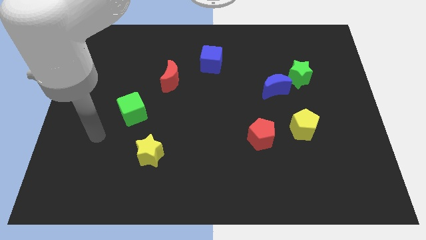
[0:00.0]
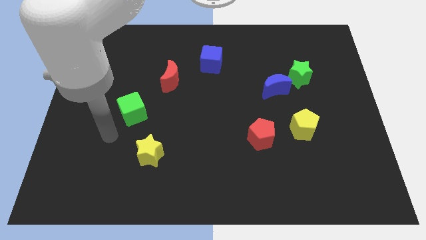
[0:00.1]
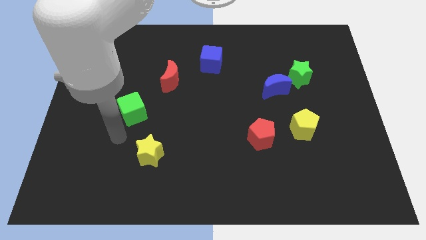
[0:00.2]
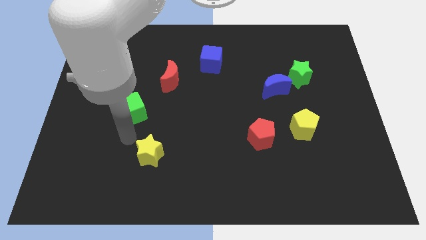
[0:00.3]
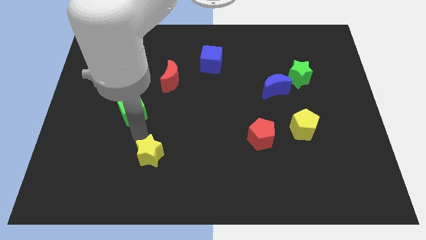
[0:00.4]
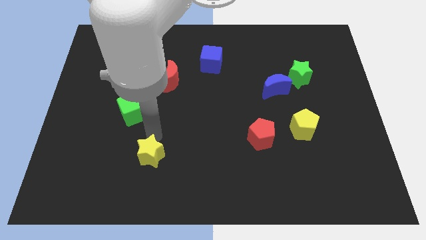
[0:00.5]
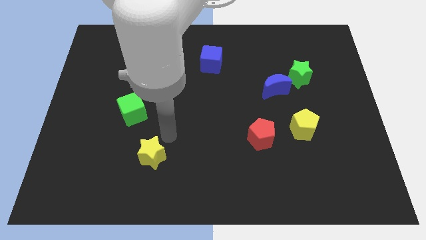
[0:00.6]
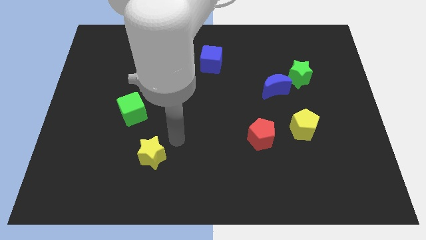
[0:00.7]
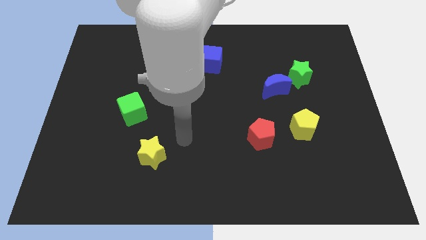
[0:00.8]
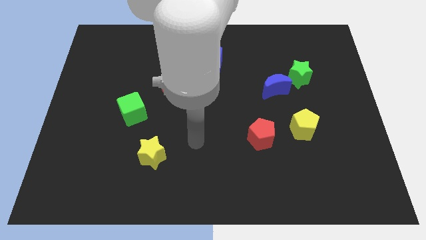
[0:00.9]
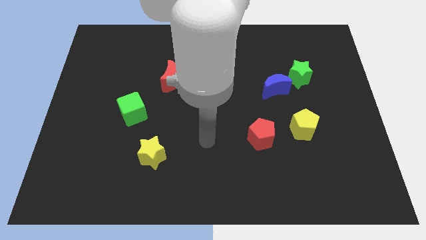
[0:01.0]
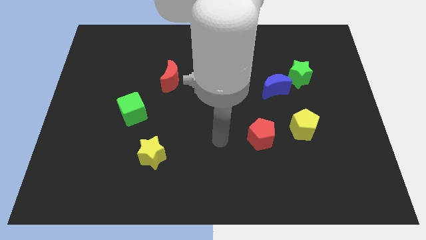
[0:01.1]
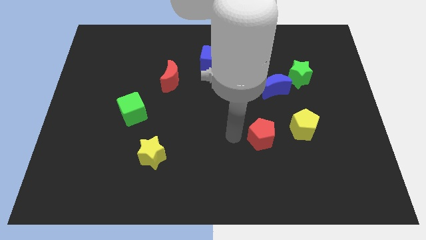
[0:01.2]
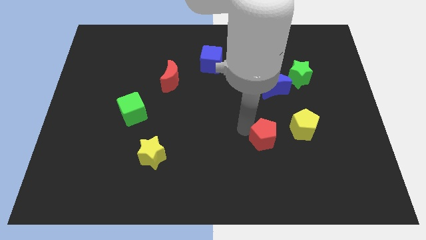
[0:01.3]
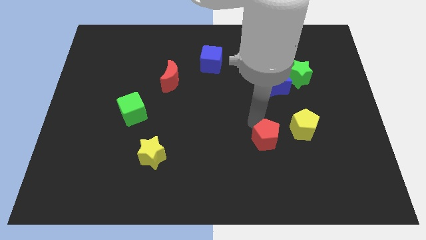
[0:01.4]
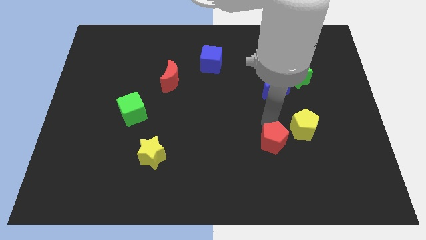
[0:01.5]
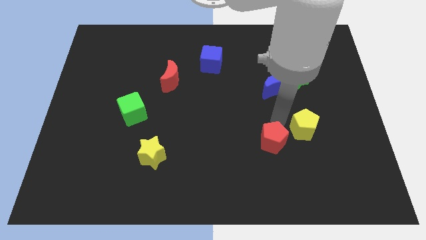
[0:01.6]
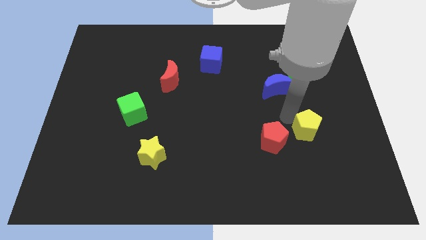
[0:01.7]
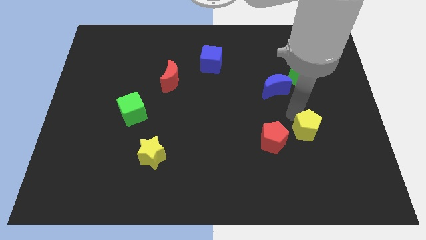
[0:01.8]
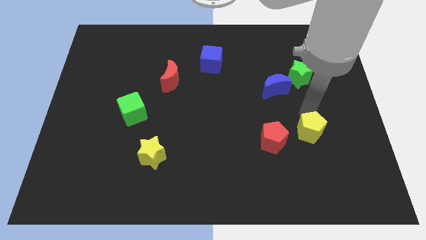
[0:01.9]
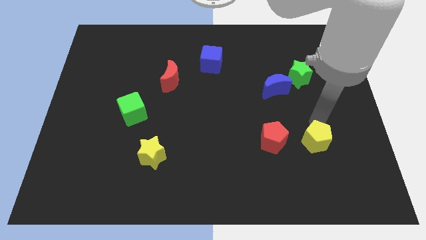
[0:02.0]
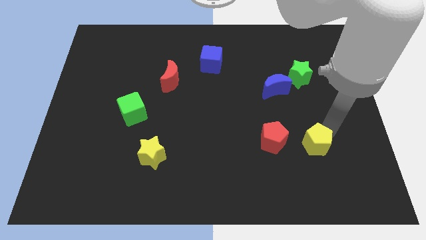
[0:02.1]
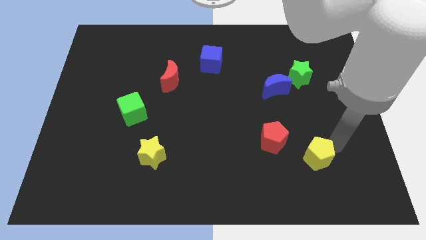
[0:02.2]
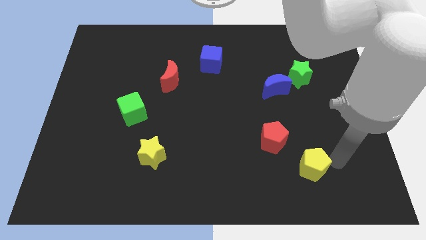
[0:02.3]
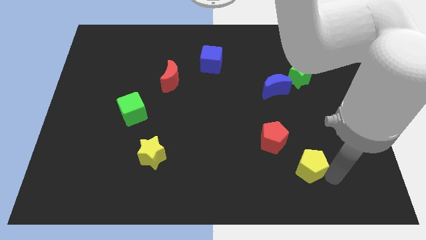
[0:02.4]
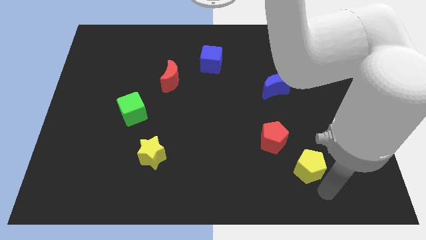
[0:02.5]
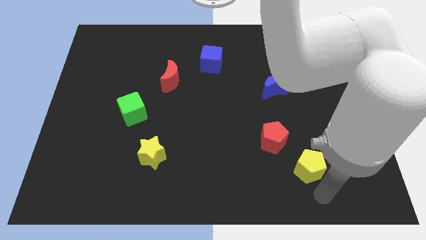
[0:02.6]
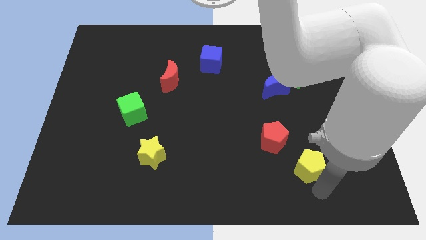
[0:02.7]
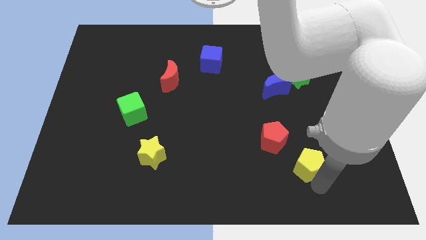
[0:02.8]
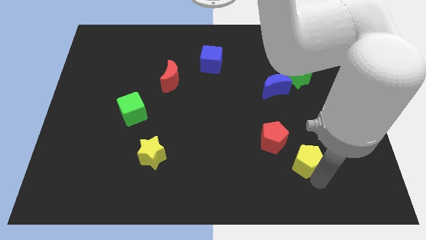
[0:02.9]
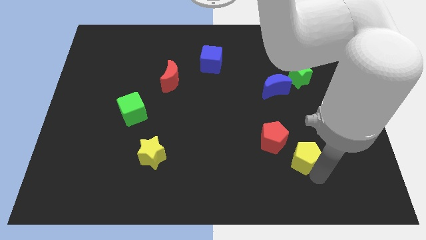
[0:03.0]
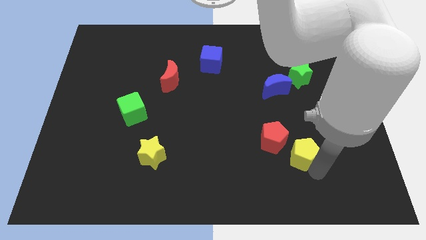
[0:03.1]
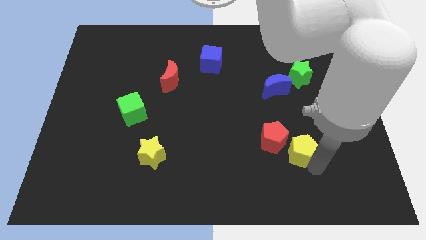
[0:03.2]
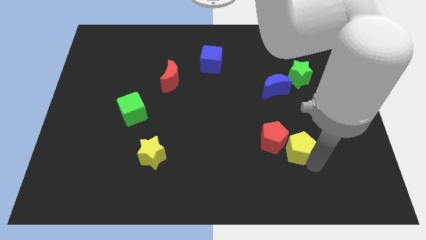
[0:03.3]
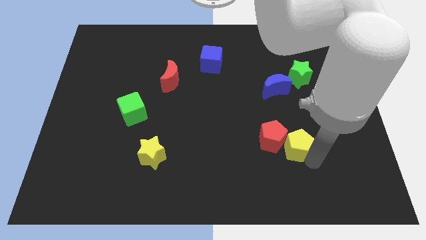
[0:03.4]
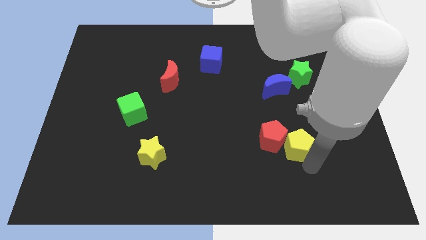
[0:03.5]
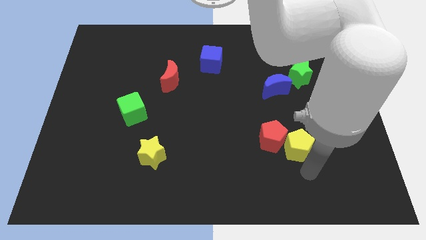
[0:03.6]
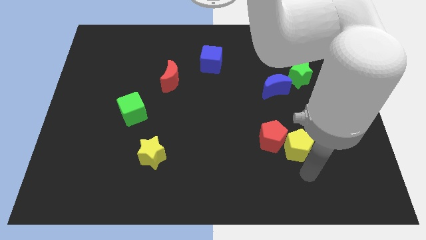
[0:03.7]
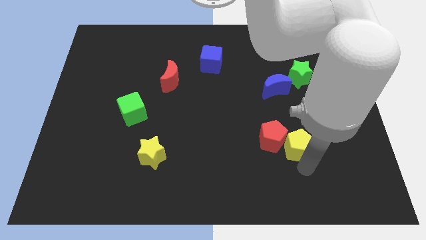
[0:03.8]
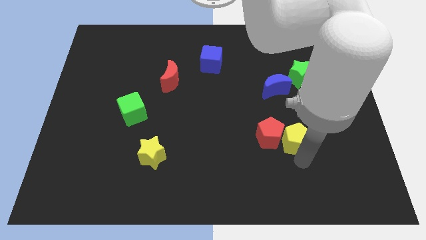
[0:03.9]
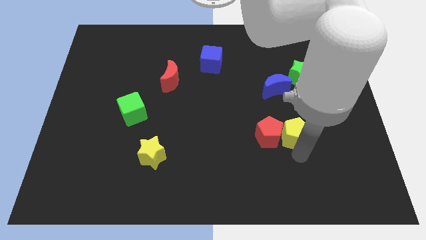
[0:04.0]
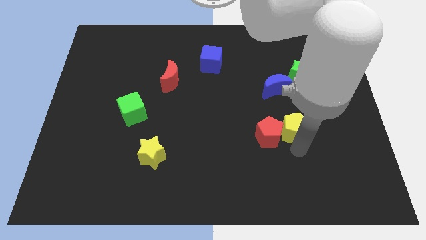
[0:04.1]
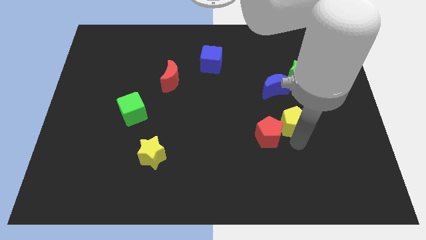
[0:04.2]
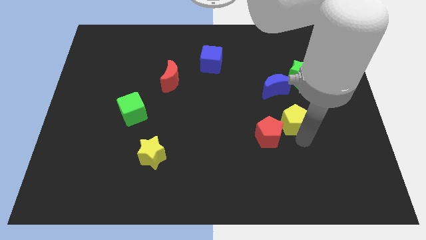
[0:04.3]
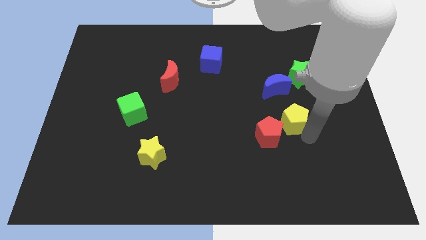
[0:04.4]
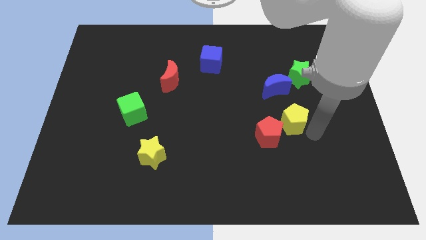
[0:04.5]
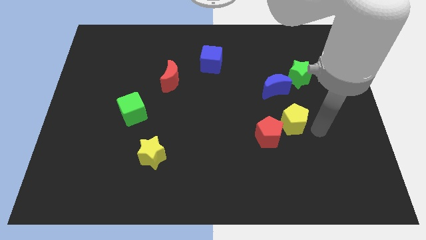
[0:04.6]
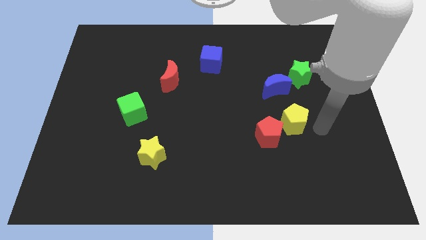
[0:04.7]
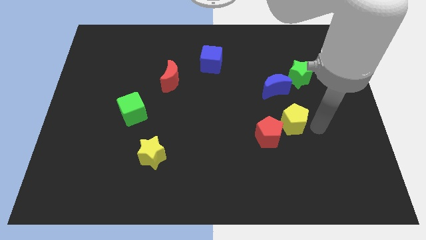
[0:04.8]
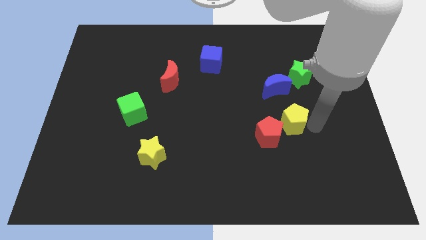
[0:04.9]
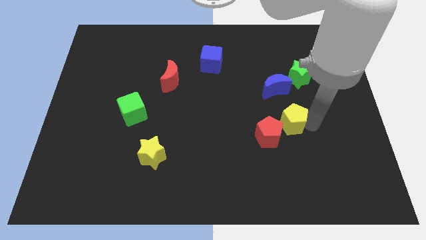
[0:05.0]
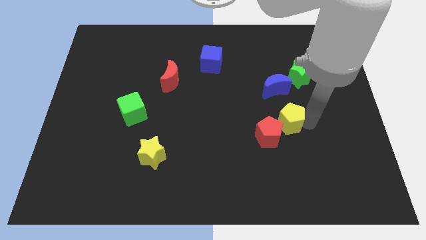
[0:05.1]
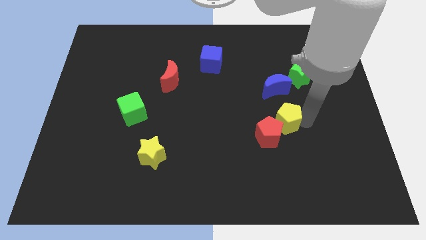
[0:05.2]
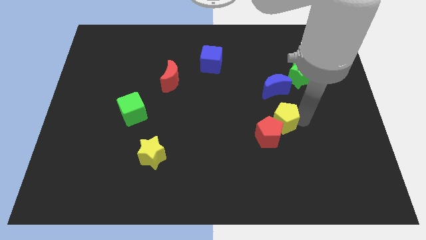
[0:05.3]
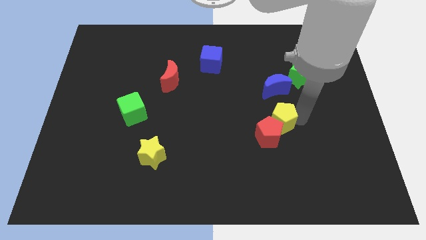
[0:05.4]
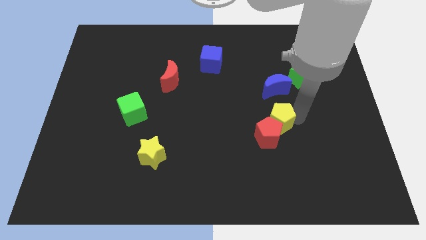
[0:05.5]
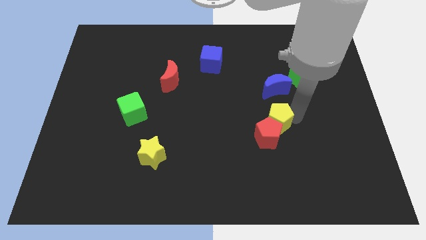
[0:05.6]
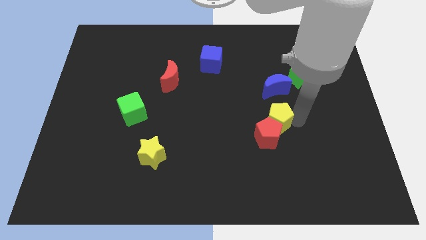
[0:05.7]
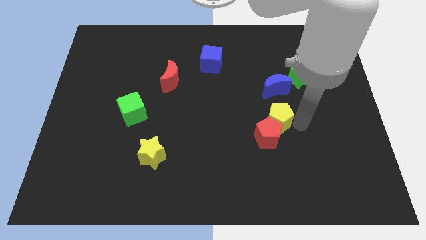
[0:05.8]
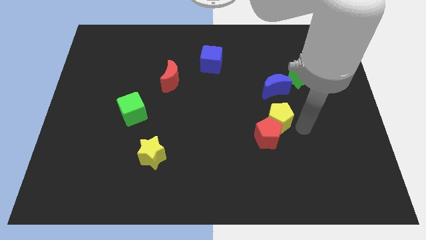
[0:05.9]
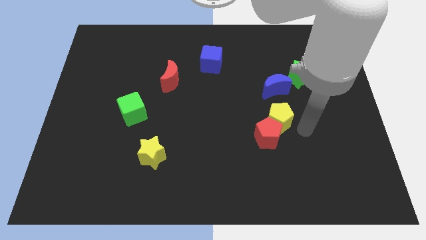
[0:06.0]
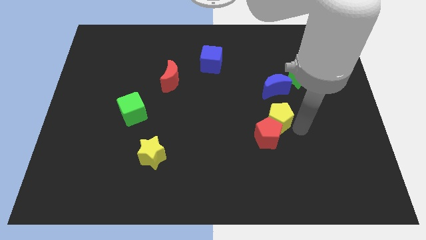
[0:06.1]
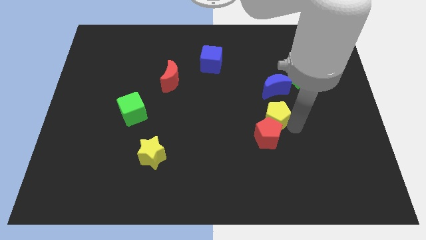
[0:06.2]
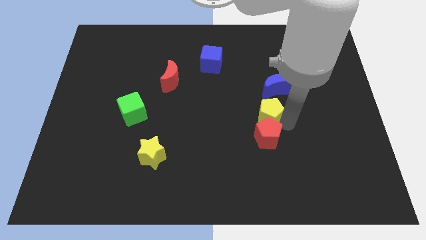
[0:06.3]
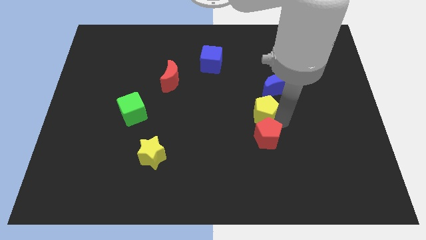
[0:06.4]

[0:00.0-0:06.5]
put the yellow pentagon to the middle
